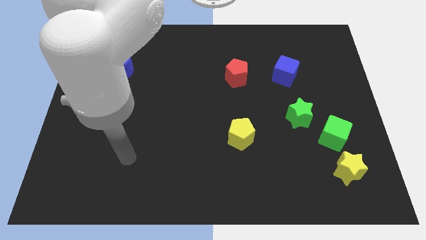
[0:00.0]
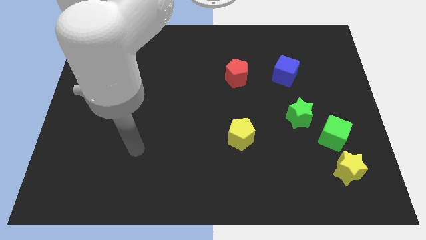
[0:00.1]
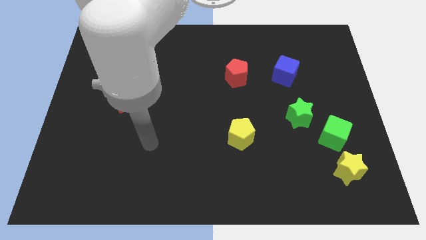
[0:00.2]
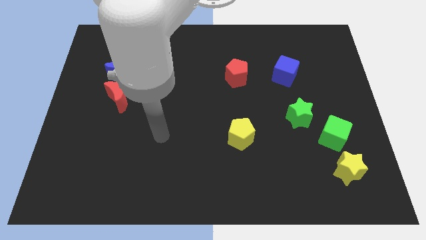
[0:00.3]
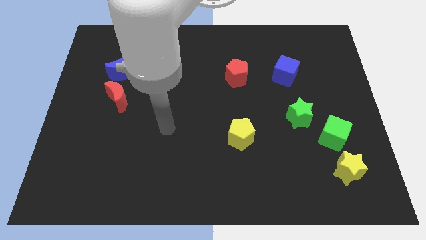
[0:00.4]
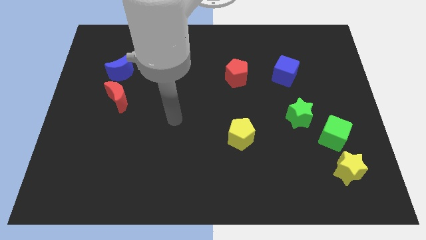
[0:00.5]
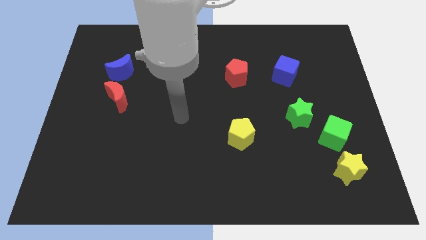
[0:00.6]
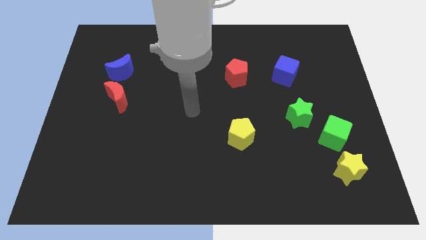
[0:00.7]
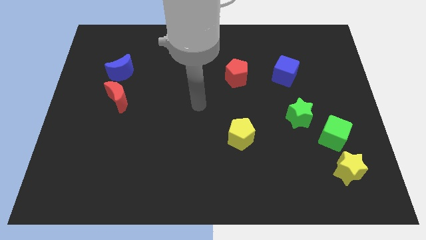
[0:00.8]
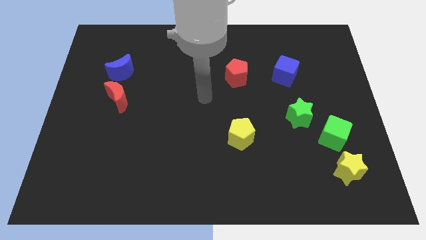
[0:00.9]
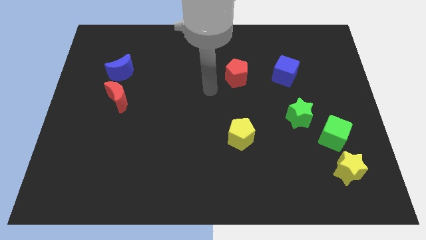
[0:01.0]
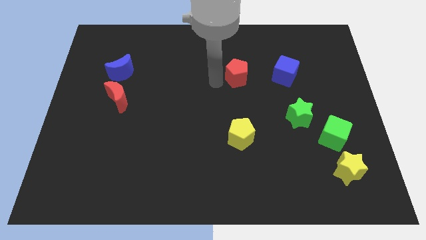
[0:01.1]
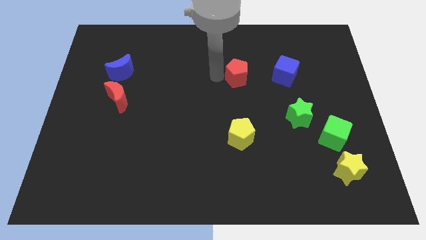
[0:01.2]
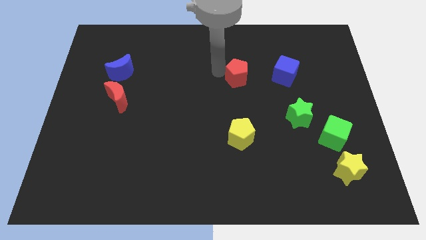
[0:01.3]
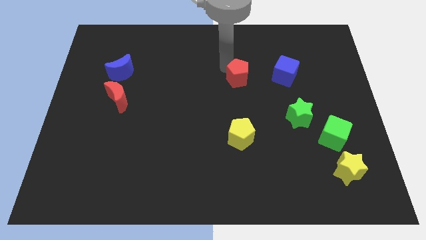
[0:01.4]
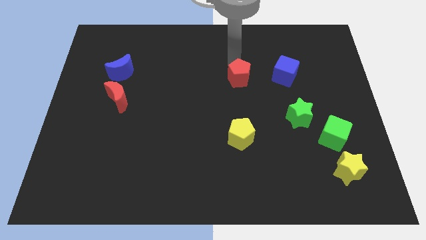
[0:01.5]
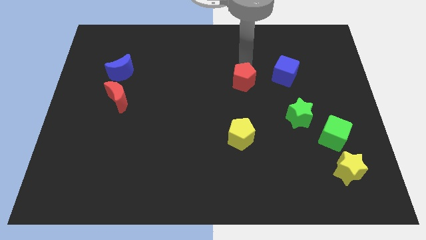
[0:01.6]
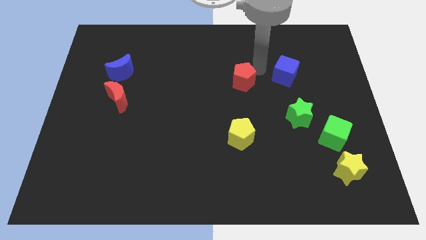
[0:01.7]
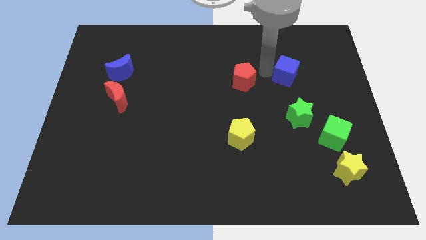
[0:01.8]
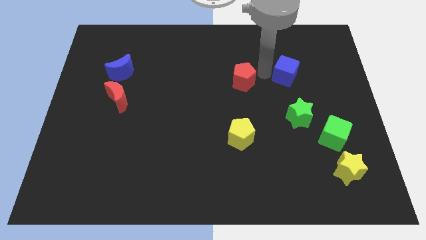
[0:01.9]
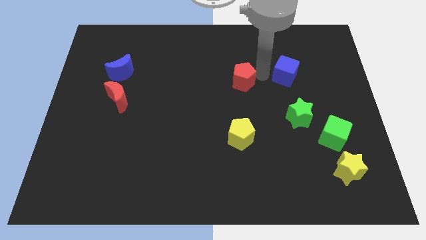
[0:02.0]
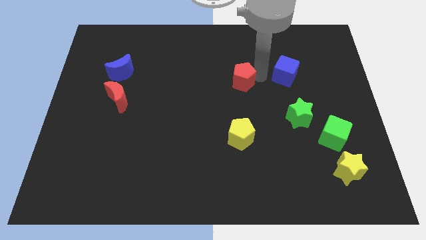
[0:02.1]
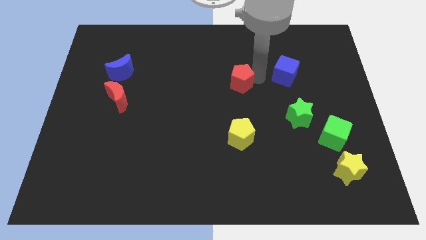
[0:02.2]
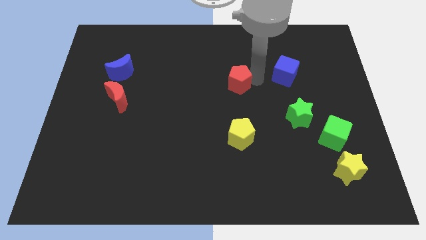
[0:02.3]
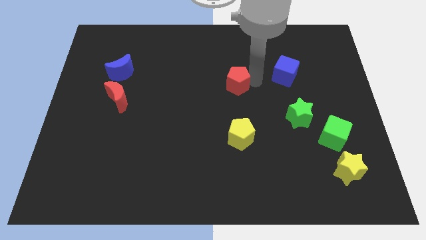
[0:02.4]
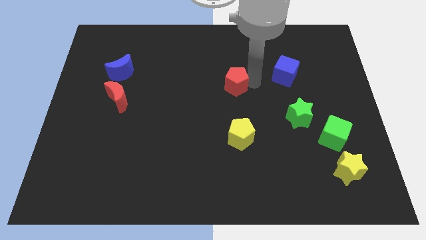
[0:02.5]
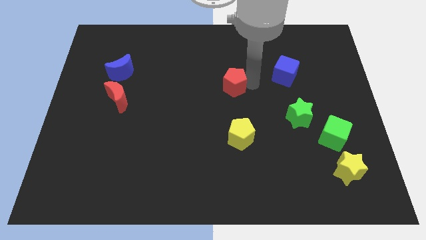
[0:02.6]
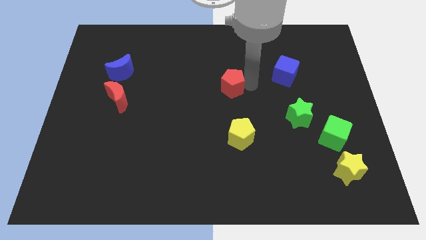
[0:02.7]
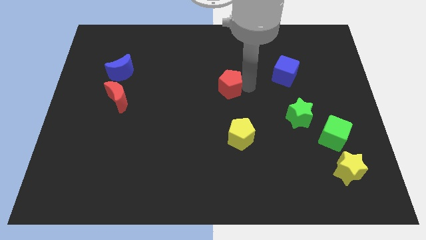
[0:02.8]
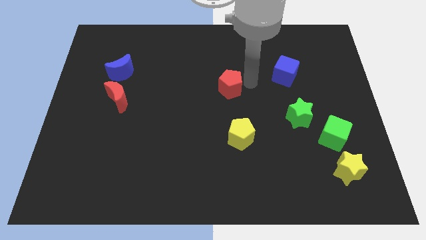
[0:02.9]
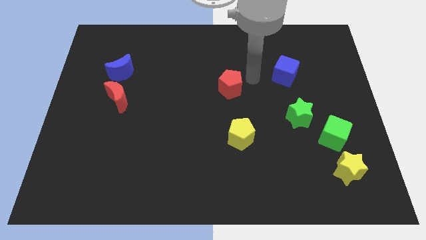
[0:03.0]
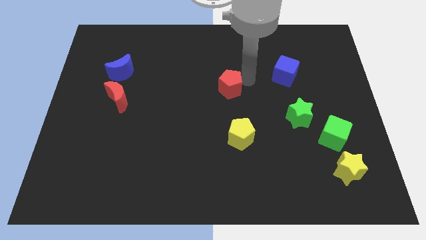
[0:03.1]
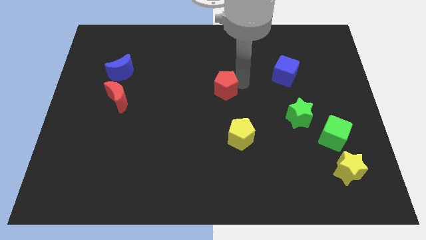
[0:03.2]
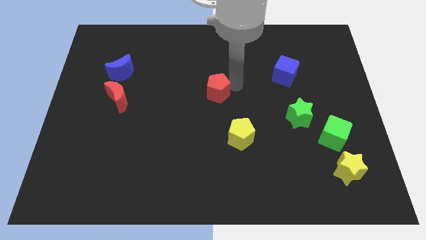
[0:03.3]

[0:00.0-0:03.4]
slightly slide the red pentagon downwards and left diagonally

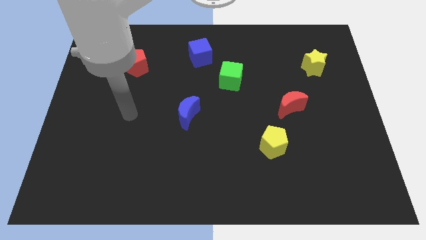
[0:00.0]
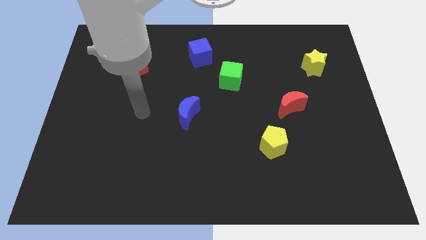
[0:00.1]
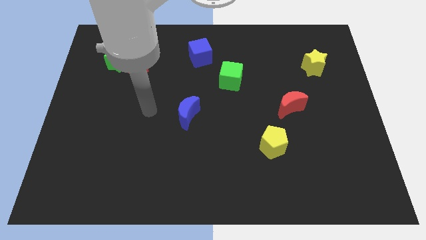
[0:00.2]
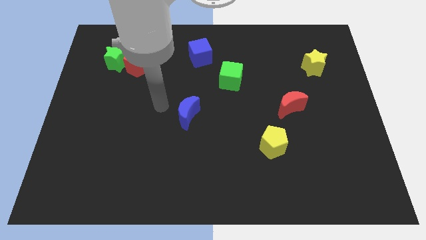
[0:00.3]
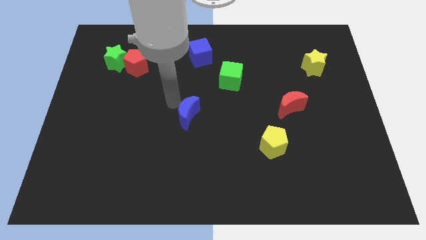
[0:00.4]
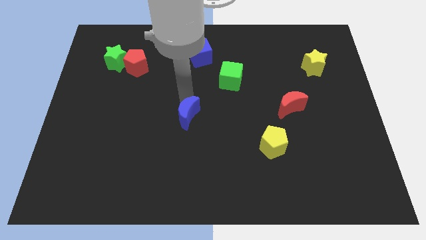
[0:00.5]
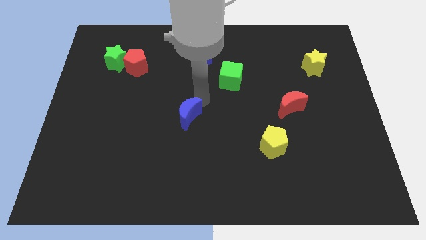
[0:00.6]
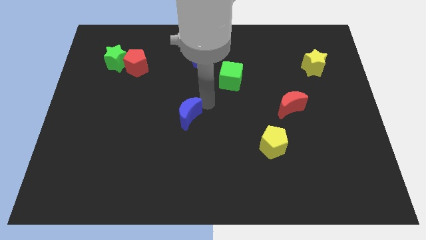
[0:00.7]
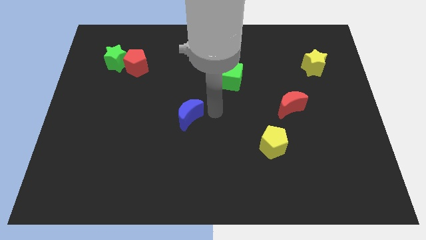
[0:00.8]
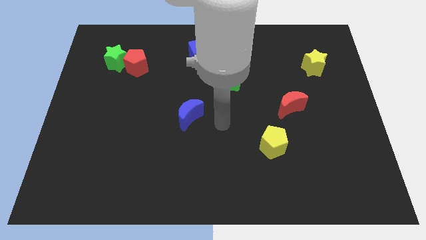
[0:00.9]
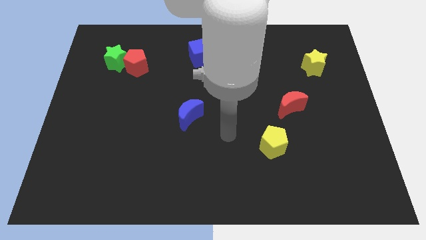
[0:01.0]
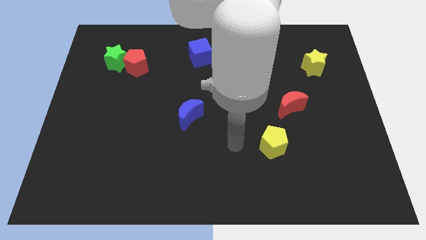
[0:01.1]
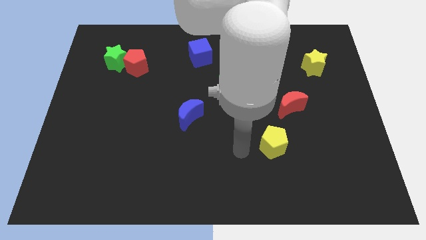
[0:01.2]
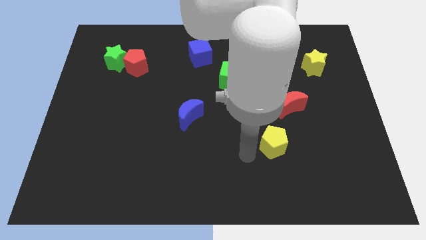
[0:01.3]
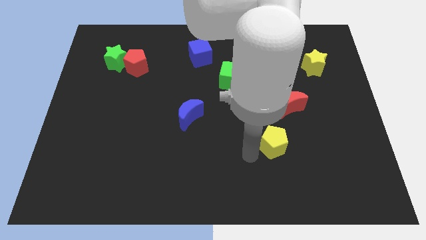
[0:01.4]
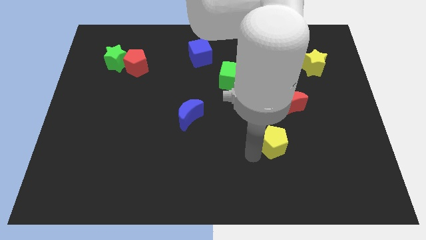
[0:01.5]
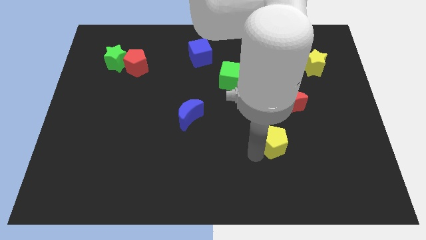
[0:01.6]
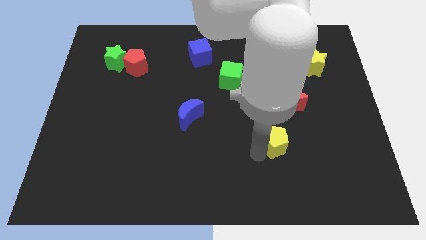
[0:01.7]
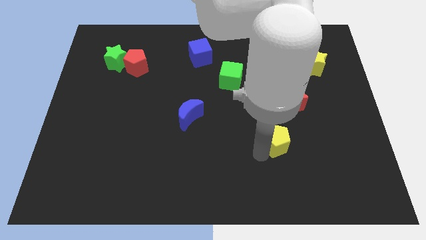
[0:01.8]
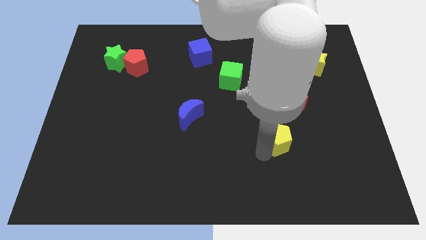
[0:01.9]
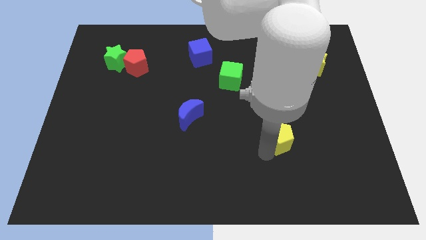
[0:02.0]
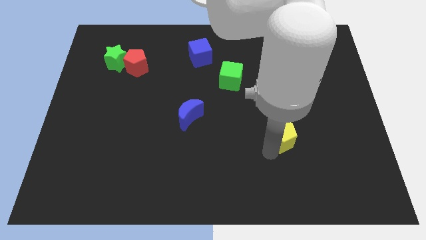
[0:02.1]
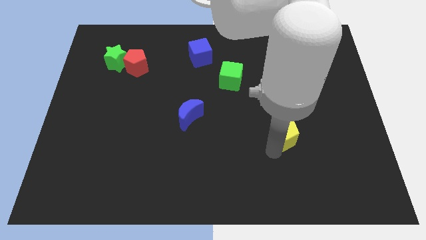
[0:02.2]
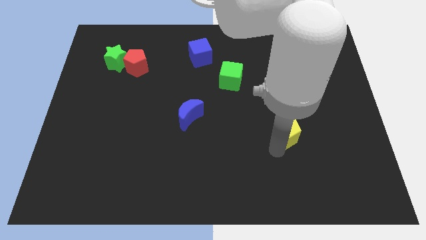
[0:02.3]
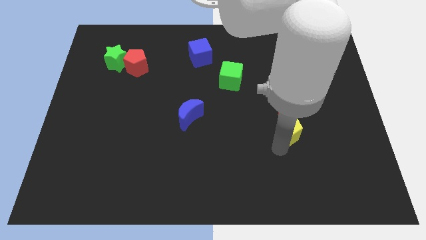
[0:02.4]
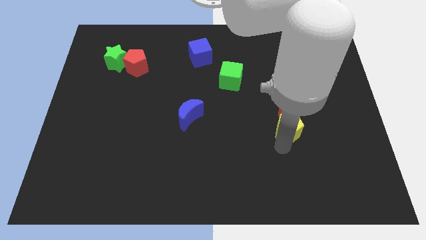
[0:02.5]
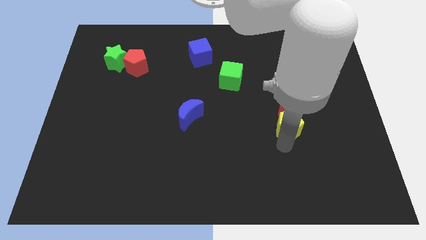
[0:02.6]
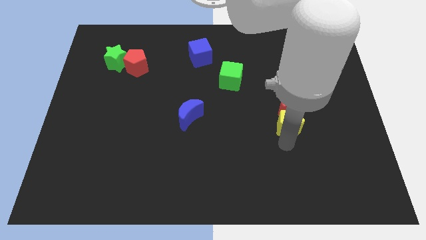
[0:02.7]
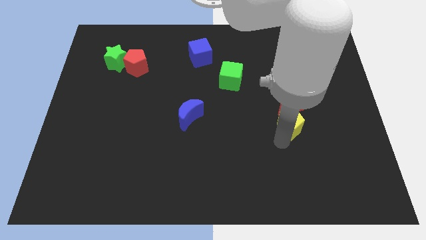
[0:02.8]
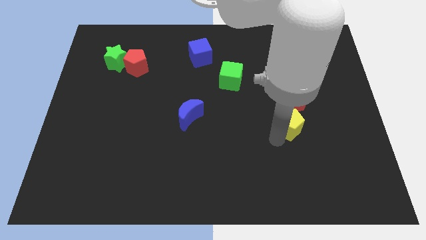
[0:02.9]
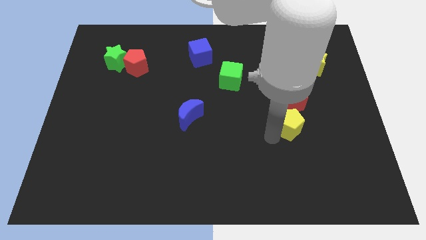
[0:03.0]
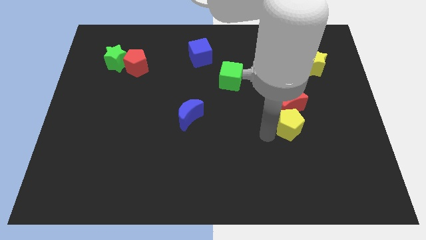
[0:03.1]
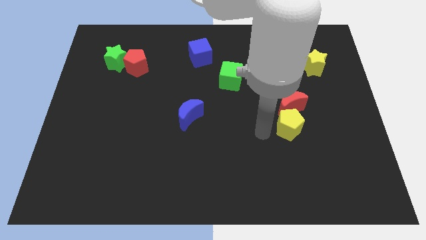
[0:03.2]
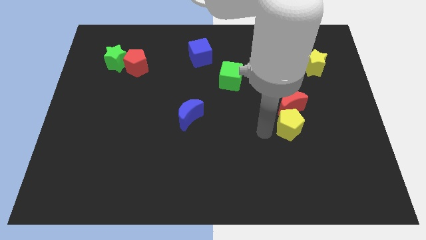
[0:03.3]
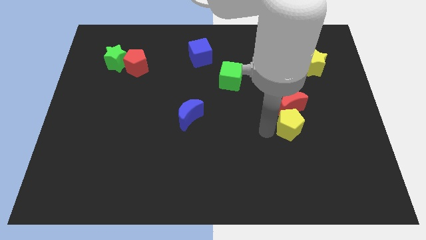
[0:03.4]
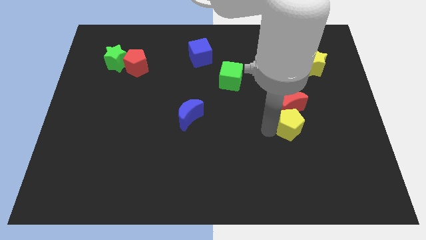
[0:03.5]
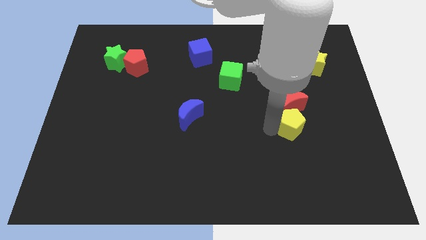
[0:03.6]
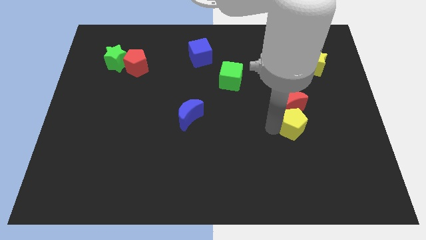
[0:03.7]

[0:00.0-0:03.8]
slightly push the yellow pentagon upwards and right diagonally

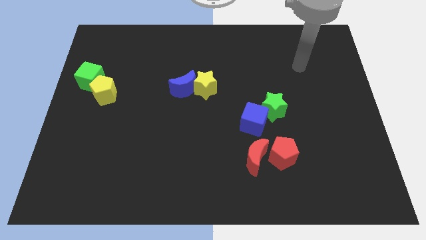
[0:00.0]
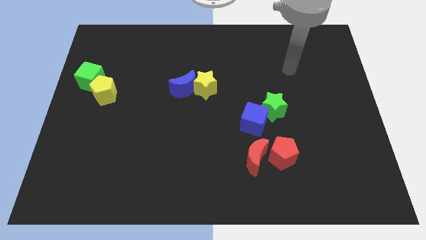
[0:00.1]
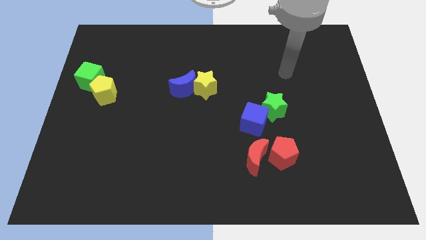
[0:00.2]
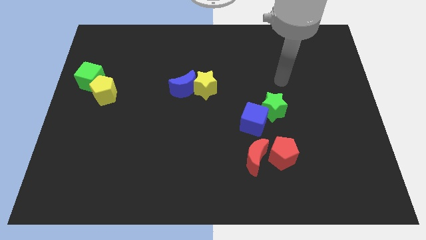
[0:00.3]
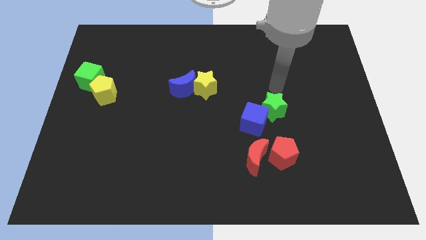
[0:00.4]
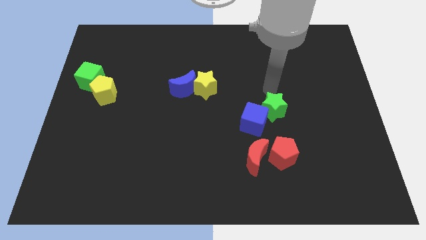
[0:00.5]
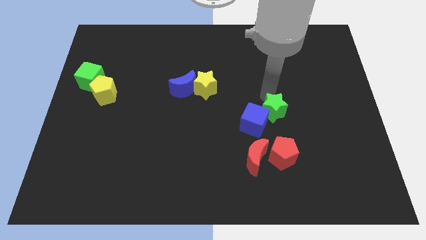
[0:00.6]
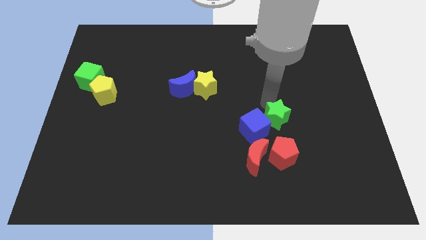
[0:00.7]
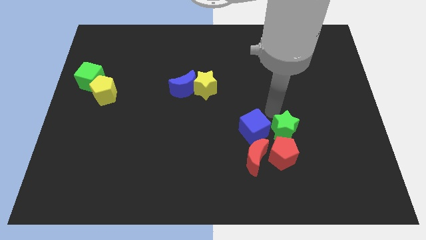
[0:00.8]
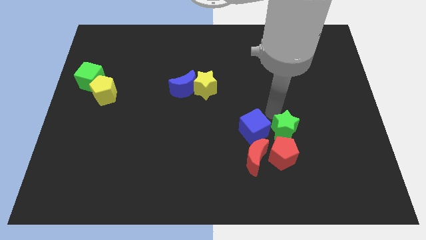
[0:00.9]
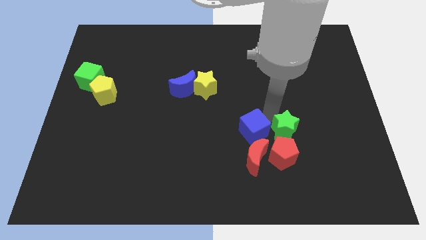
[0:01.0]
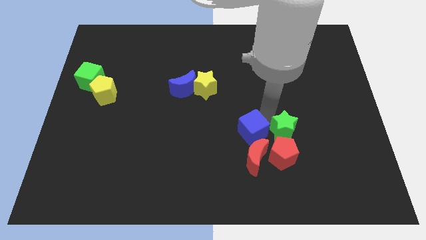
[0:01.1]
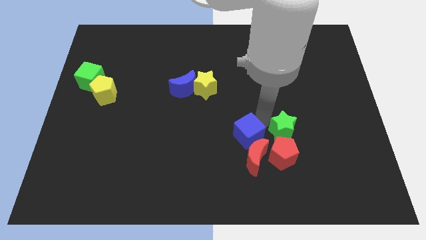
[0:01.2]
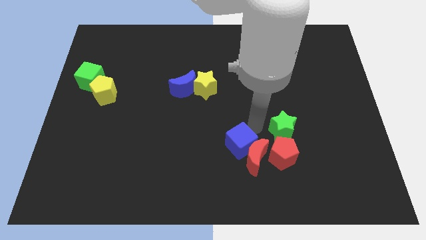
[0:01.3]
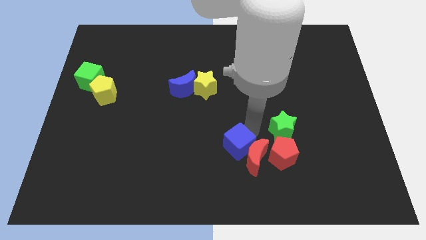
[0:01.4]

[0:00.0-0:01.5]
slightly move the blue cube downwards and to the left

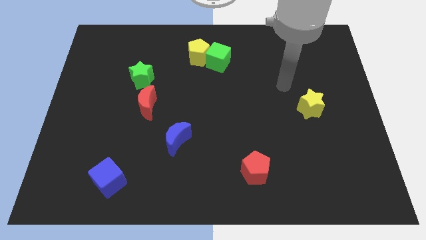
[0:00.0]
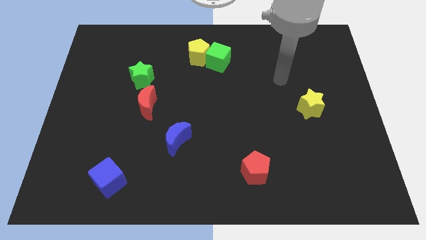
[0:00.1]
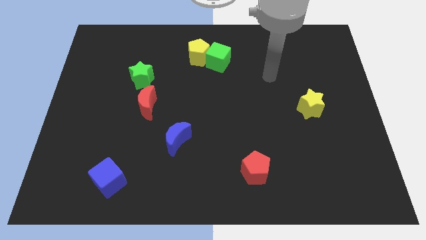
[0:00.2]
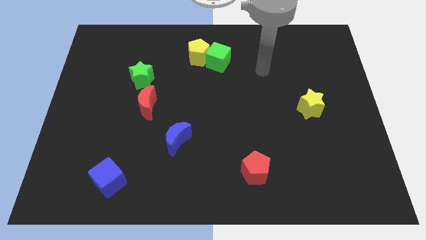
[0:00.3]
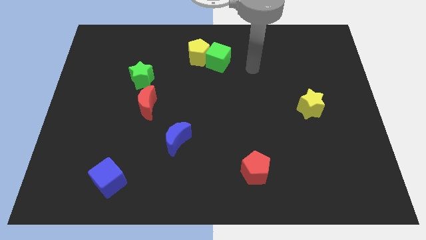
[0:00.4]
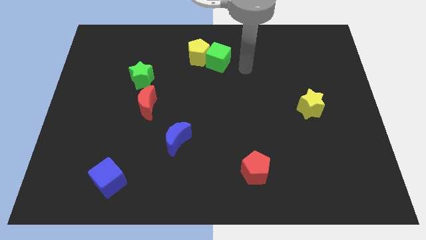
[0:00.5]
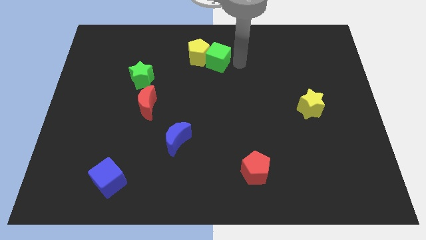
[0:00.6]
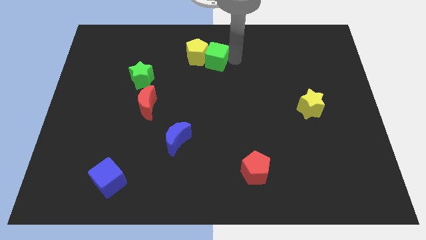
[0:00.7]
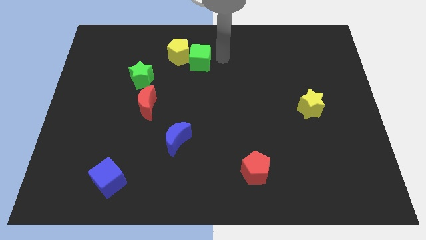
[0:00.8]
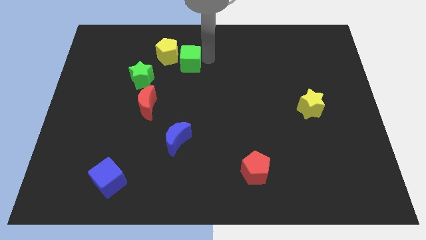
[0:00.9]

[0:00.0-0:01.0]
slightly move the yellow pentagon to the left
